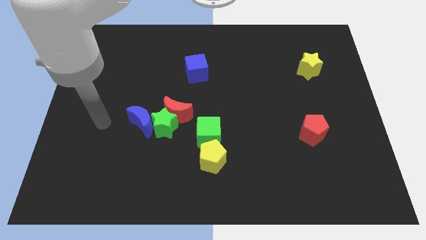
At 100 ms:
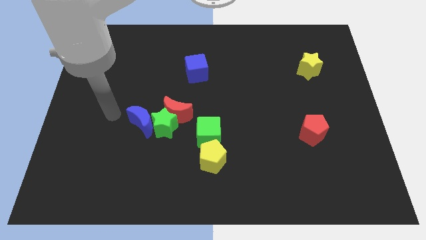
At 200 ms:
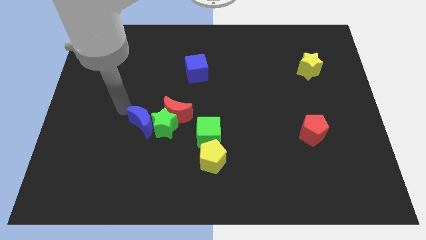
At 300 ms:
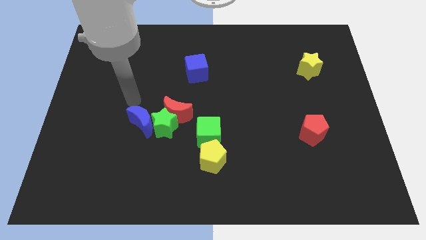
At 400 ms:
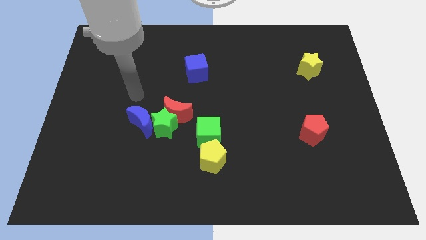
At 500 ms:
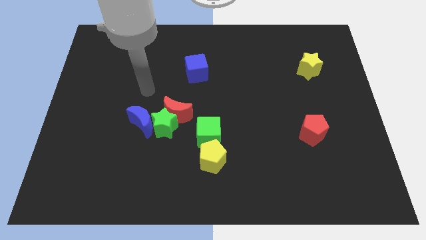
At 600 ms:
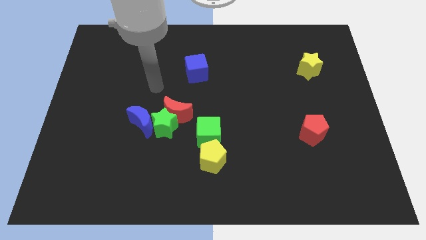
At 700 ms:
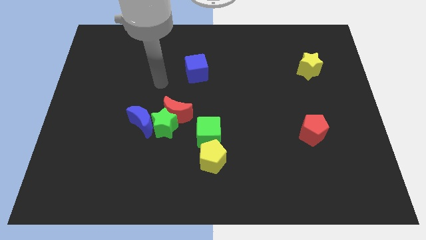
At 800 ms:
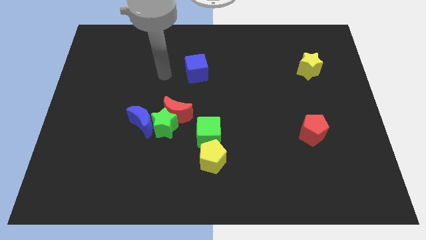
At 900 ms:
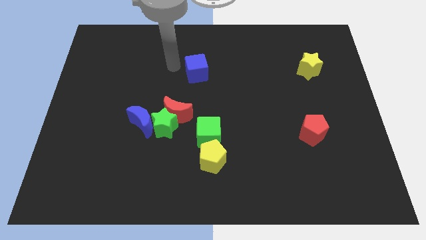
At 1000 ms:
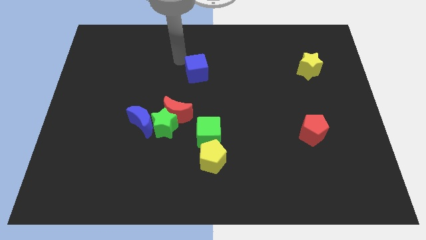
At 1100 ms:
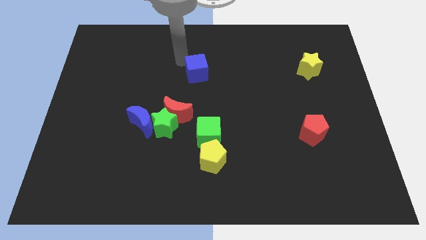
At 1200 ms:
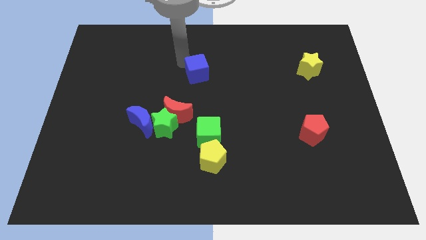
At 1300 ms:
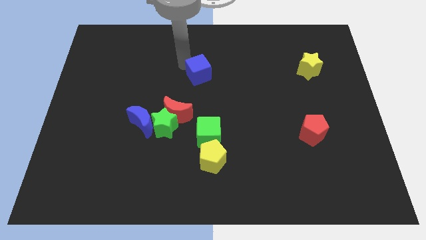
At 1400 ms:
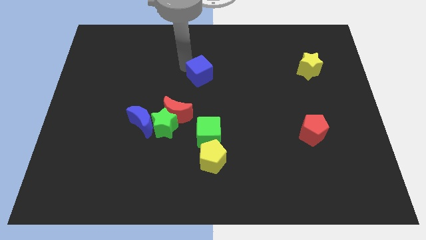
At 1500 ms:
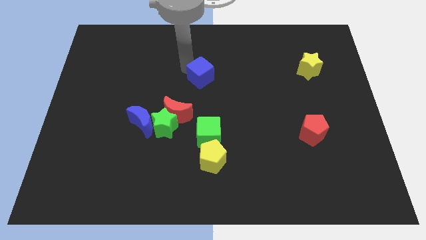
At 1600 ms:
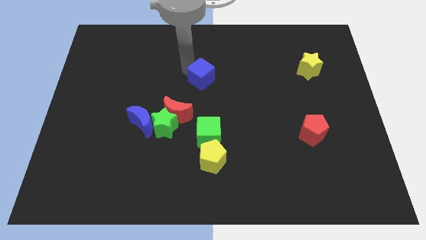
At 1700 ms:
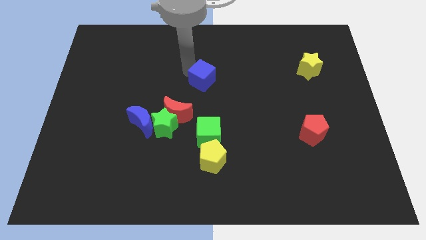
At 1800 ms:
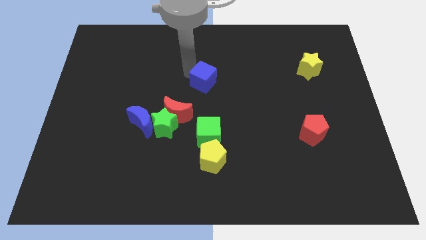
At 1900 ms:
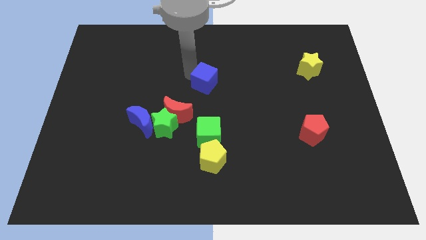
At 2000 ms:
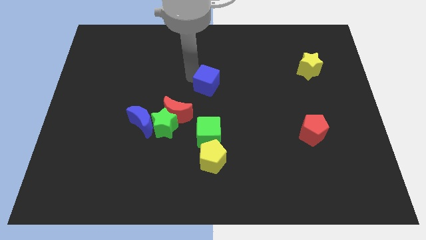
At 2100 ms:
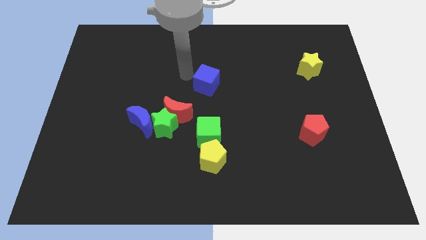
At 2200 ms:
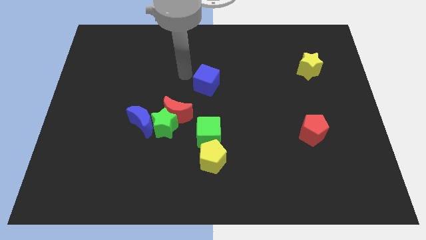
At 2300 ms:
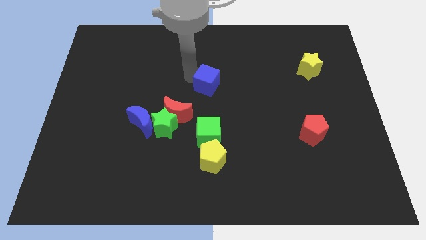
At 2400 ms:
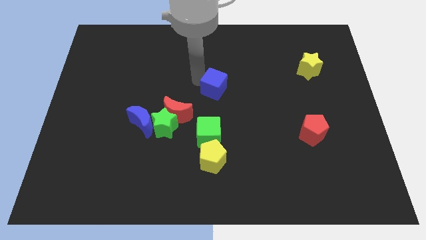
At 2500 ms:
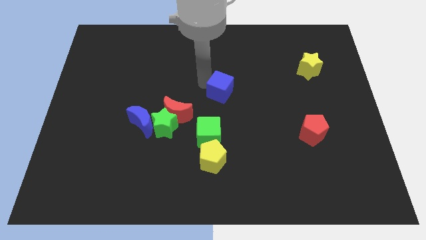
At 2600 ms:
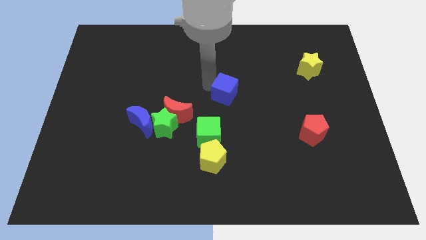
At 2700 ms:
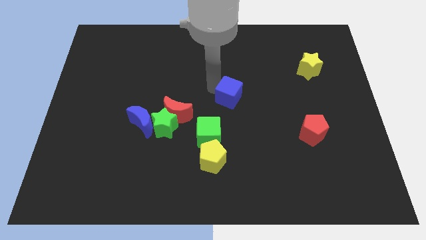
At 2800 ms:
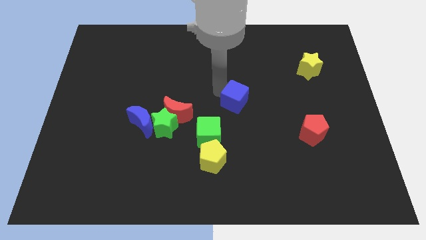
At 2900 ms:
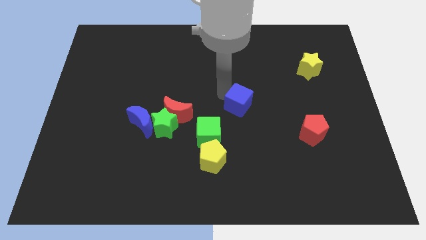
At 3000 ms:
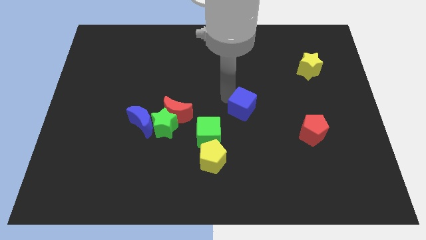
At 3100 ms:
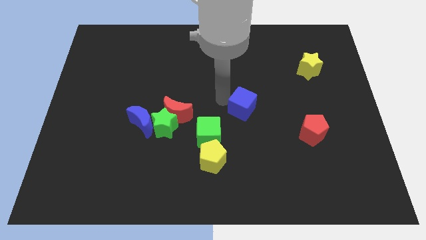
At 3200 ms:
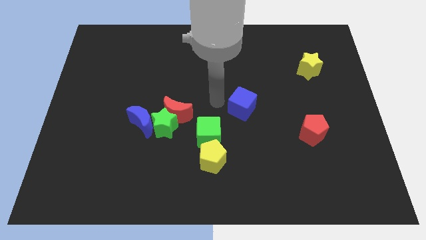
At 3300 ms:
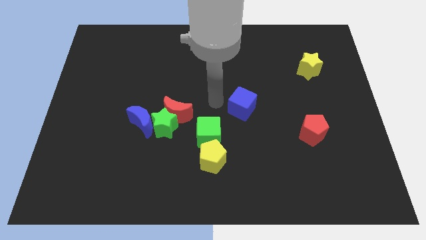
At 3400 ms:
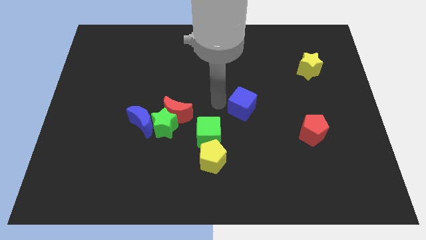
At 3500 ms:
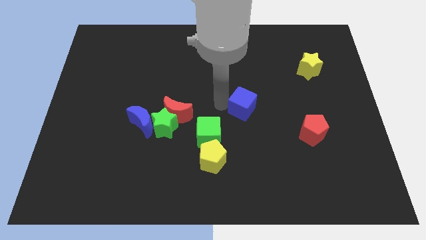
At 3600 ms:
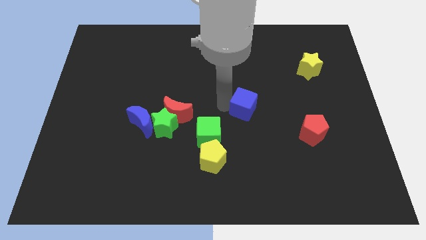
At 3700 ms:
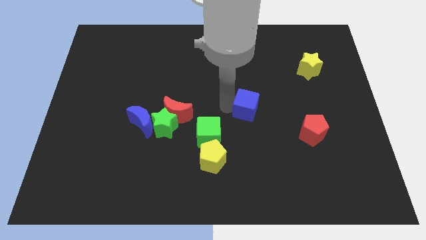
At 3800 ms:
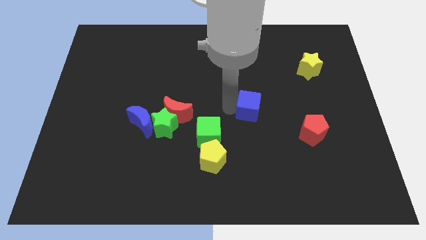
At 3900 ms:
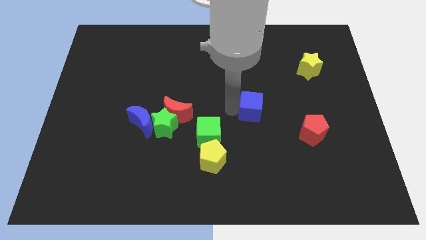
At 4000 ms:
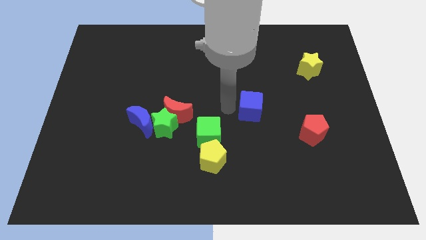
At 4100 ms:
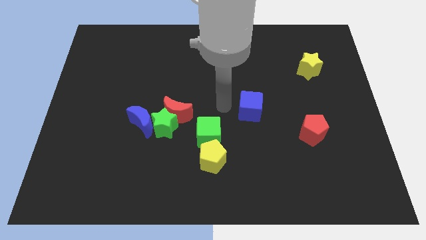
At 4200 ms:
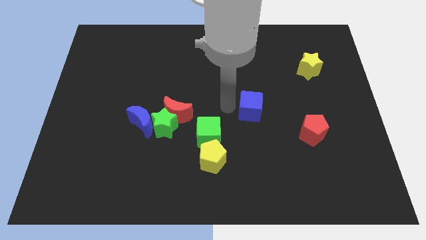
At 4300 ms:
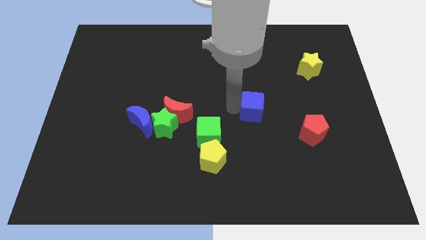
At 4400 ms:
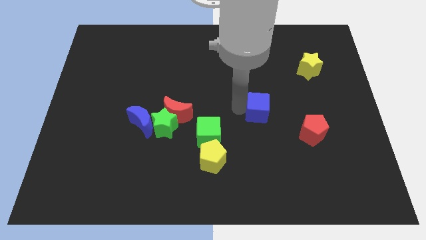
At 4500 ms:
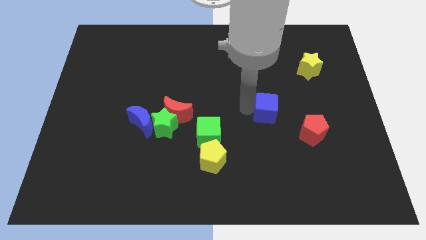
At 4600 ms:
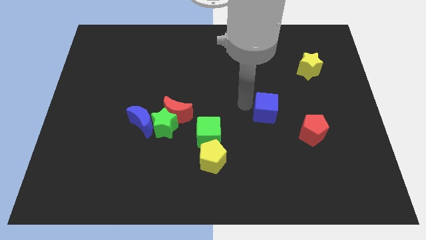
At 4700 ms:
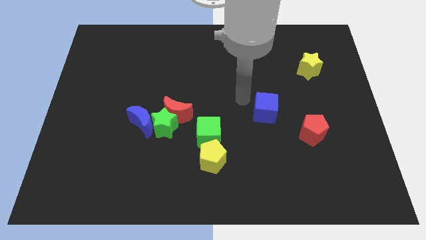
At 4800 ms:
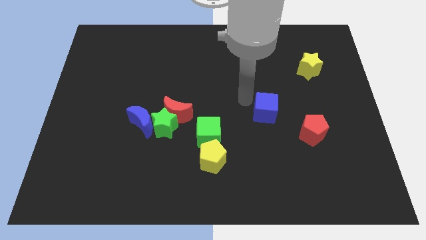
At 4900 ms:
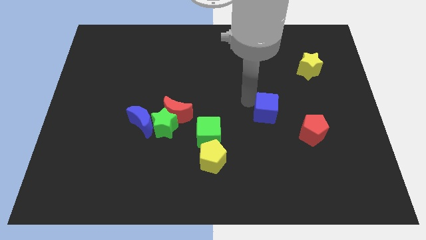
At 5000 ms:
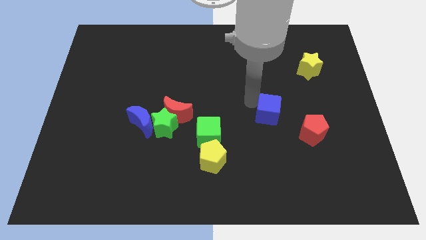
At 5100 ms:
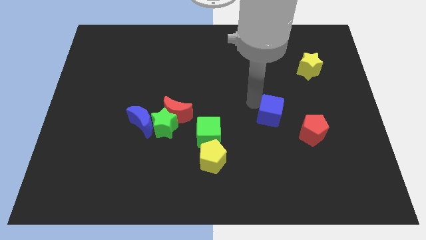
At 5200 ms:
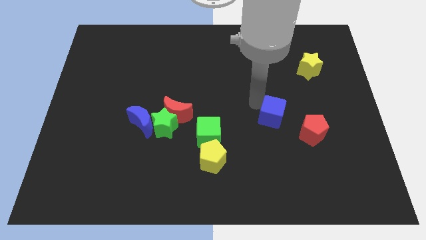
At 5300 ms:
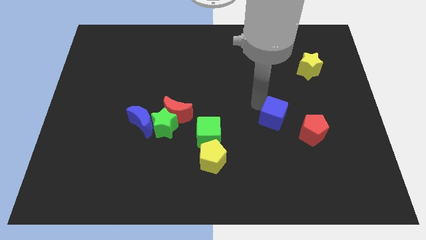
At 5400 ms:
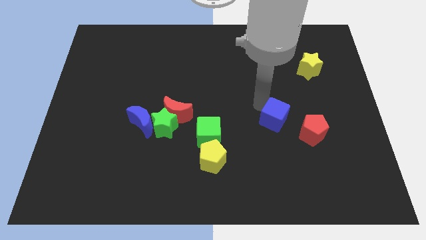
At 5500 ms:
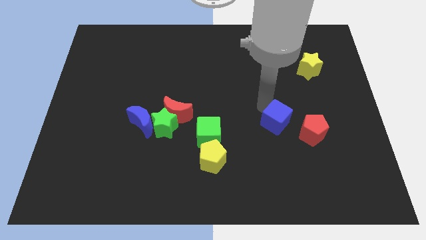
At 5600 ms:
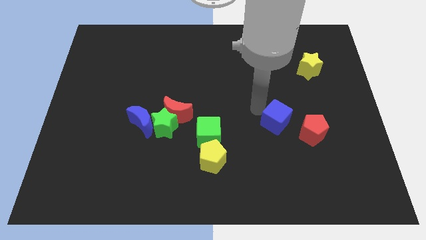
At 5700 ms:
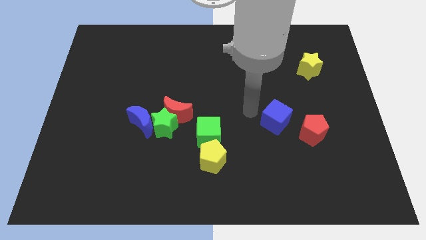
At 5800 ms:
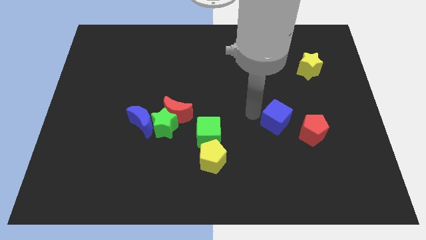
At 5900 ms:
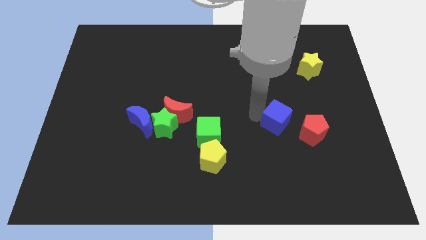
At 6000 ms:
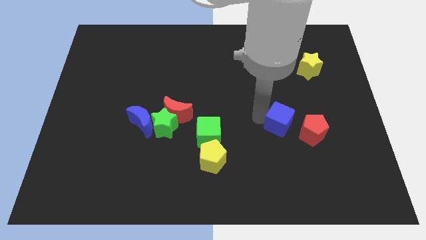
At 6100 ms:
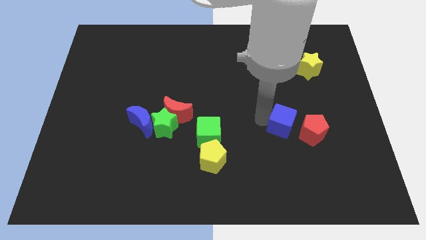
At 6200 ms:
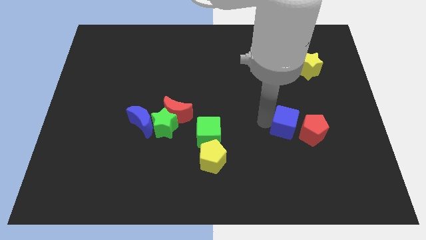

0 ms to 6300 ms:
push the blue cube next to the red pentagon

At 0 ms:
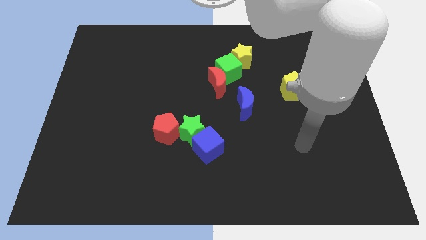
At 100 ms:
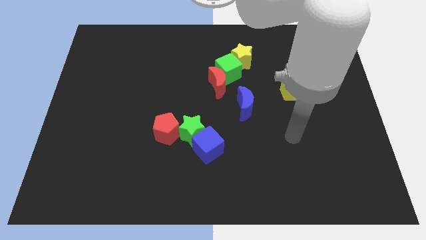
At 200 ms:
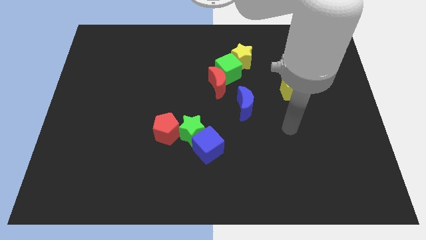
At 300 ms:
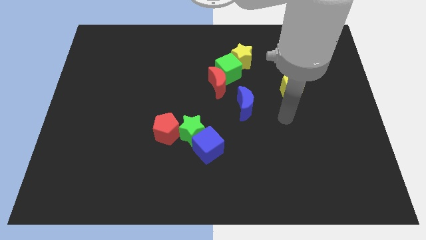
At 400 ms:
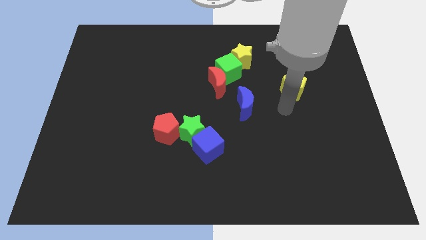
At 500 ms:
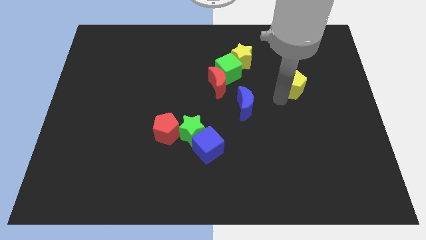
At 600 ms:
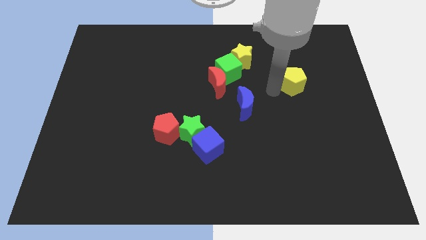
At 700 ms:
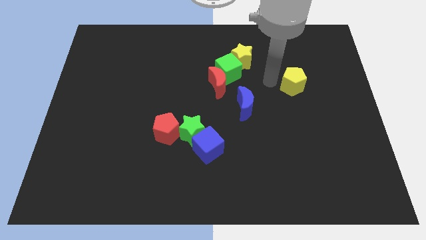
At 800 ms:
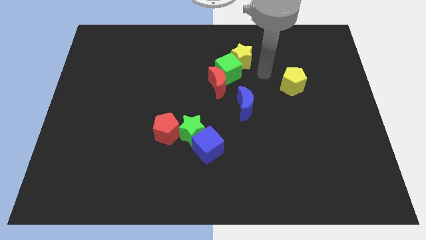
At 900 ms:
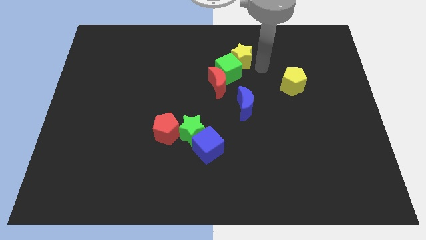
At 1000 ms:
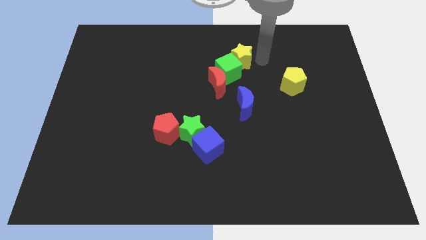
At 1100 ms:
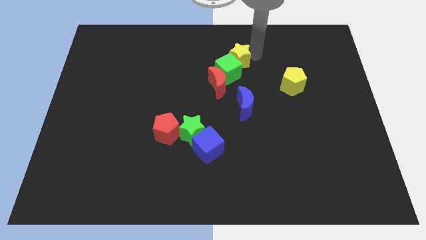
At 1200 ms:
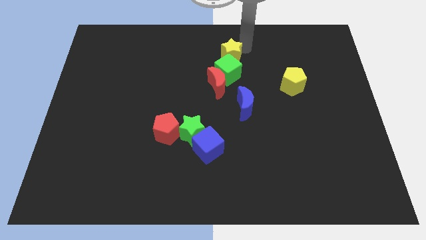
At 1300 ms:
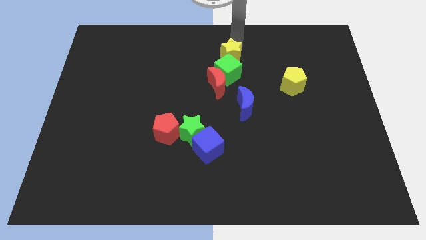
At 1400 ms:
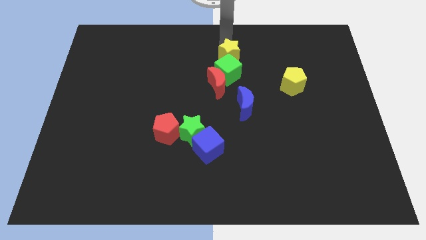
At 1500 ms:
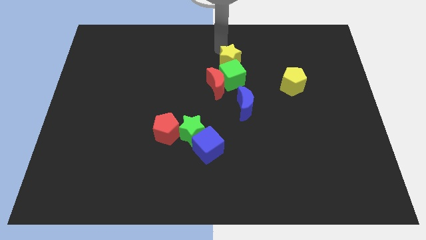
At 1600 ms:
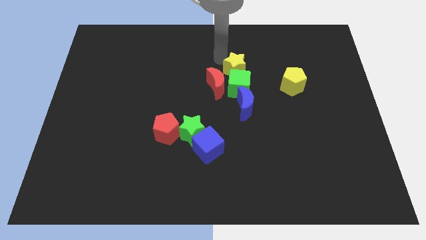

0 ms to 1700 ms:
slide the green cube next to the blue moon
